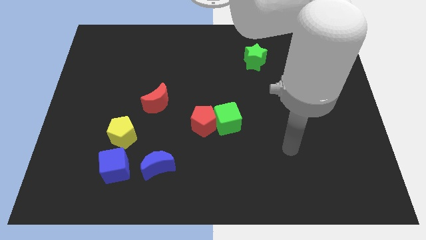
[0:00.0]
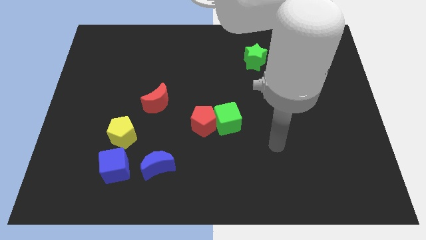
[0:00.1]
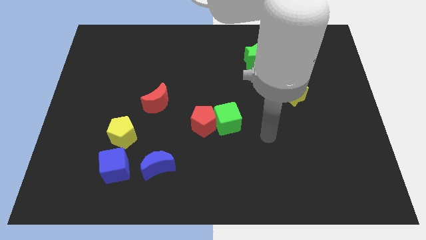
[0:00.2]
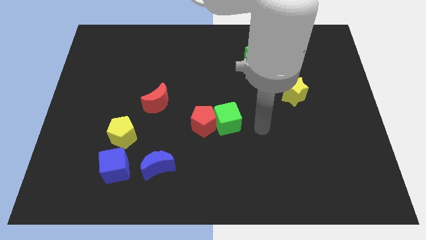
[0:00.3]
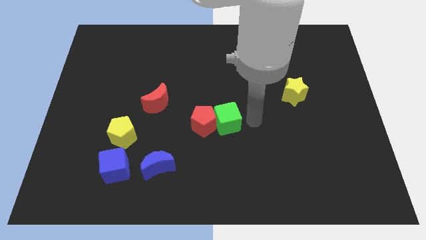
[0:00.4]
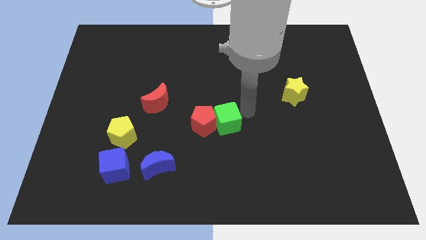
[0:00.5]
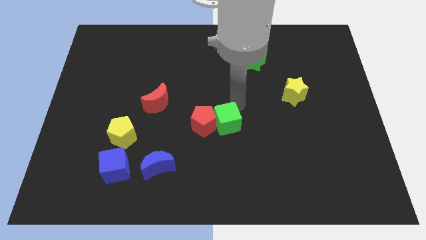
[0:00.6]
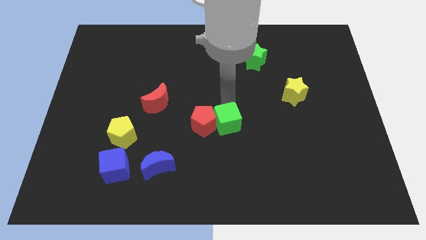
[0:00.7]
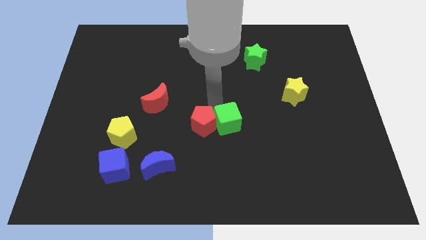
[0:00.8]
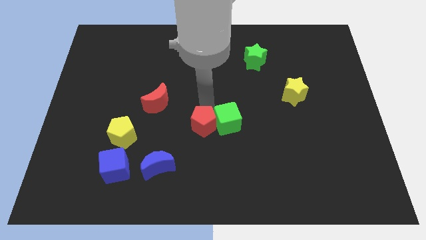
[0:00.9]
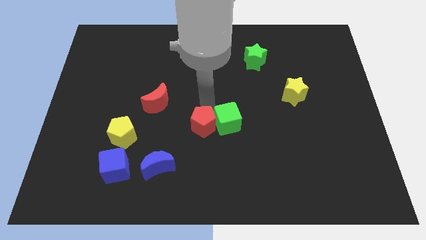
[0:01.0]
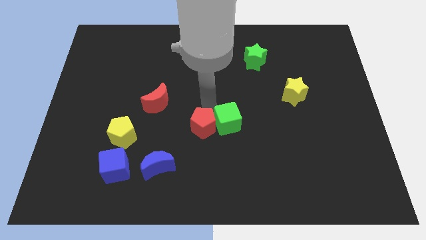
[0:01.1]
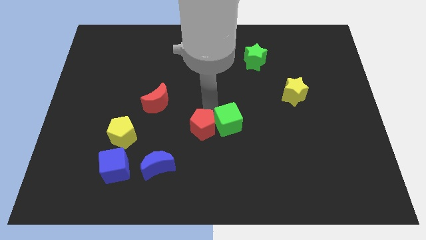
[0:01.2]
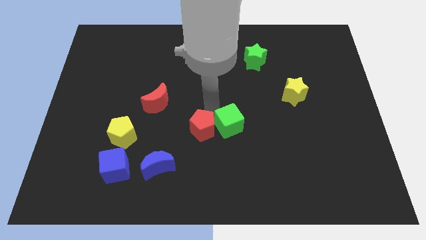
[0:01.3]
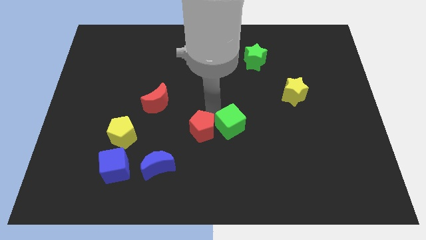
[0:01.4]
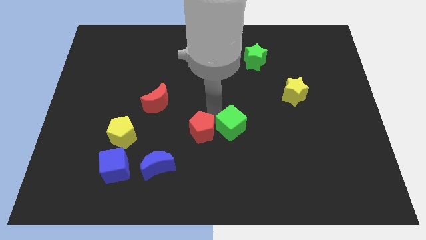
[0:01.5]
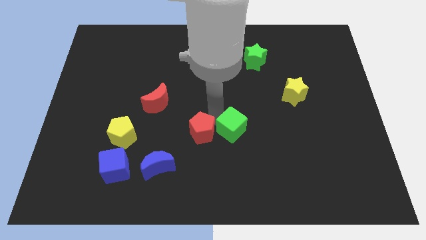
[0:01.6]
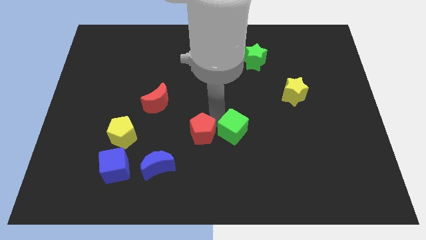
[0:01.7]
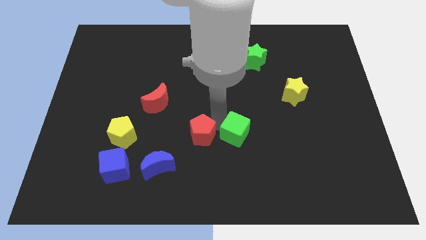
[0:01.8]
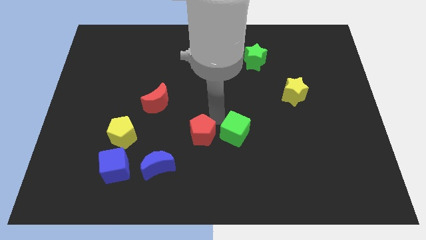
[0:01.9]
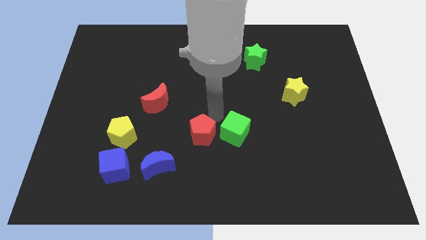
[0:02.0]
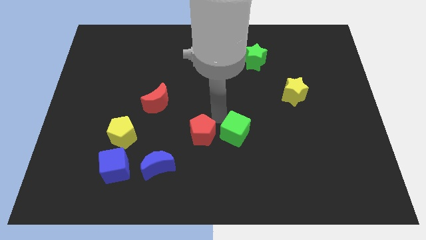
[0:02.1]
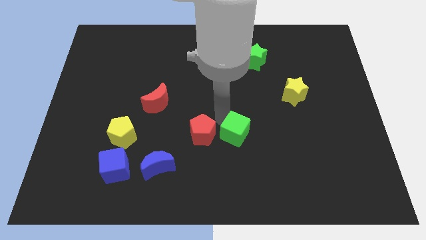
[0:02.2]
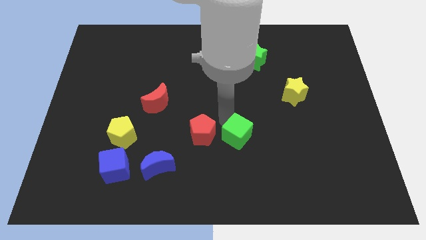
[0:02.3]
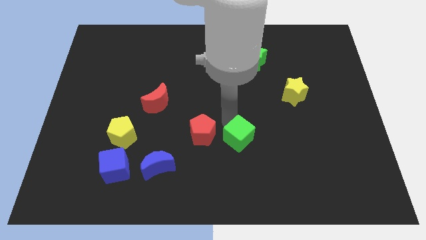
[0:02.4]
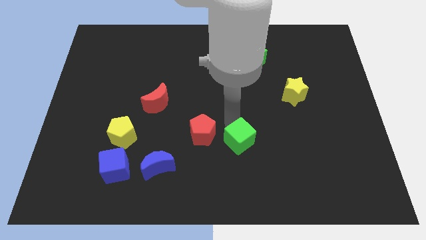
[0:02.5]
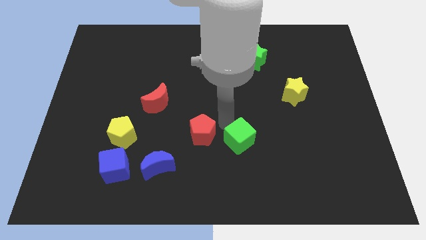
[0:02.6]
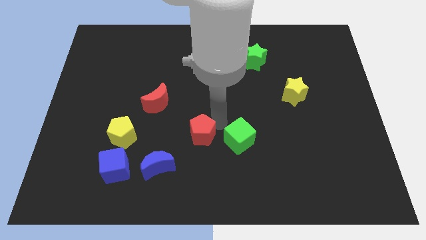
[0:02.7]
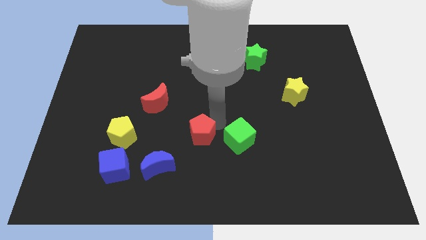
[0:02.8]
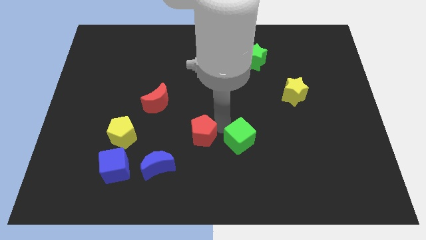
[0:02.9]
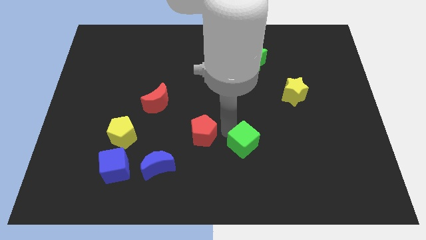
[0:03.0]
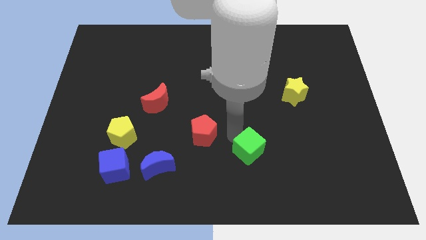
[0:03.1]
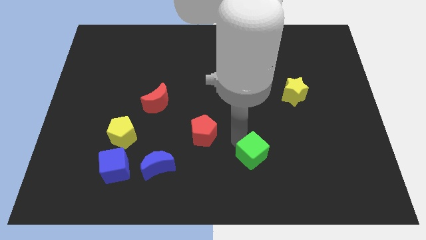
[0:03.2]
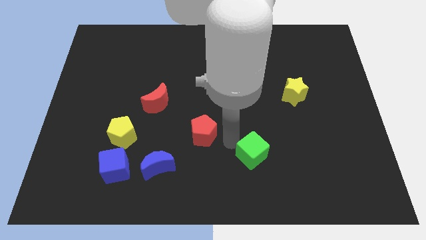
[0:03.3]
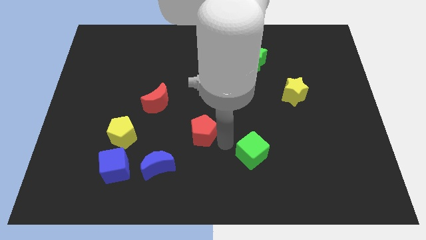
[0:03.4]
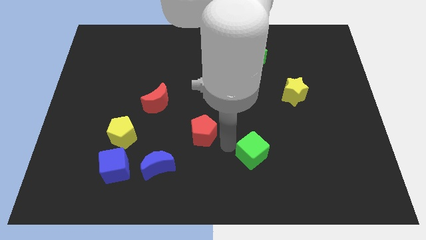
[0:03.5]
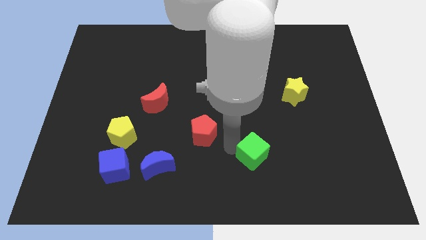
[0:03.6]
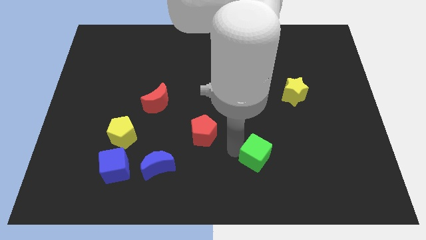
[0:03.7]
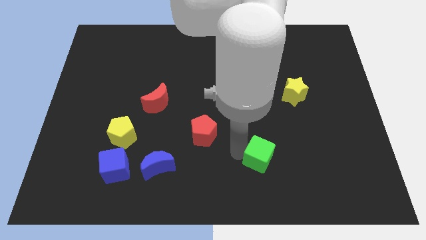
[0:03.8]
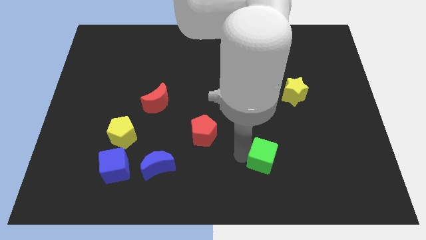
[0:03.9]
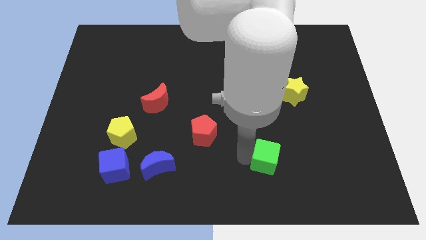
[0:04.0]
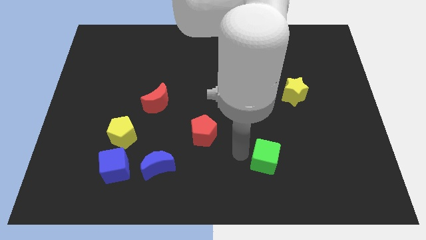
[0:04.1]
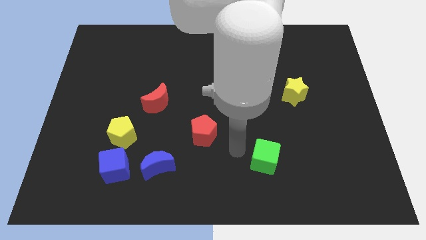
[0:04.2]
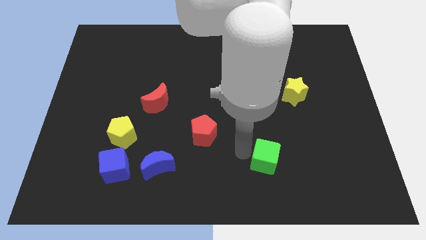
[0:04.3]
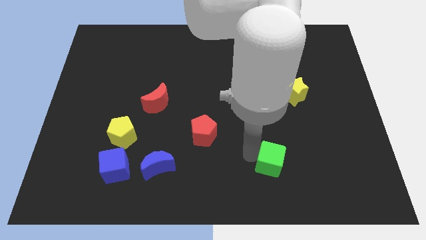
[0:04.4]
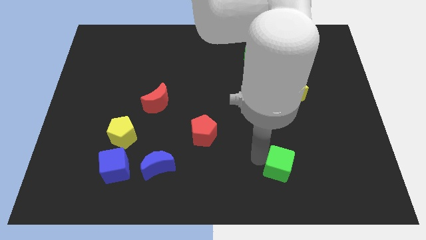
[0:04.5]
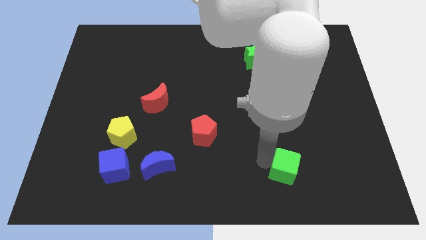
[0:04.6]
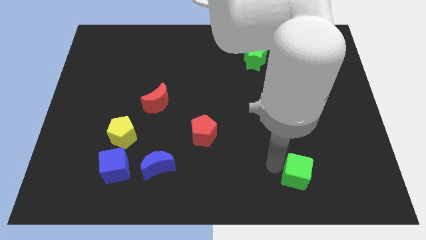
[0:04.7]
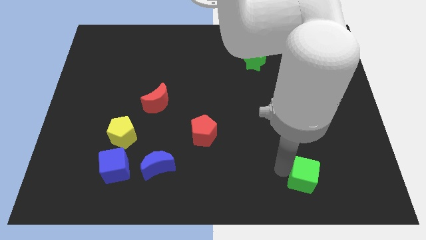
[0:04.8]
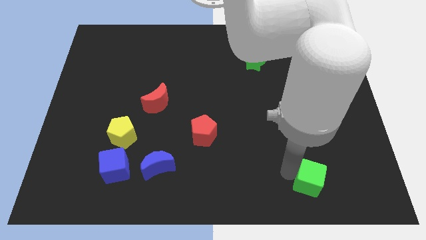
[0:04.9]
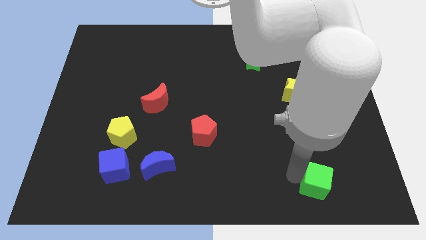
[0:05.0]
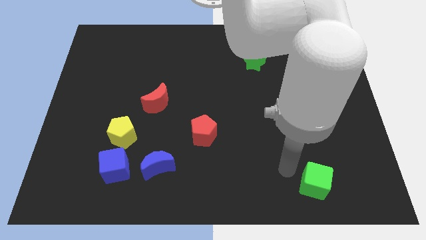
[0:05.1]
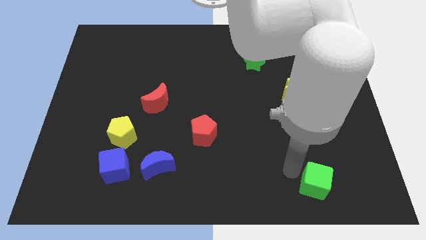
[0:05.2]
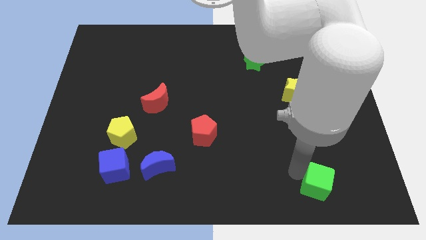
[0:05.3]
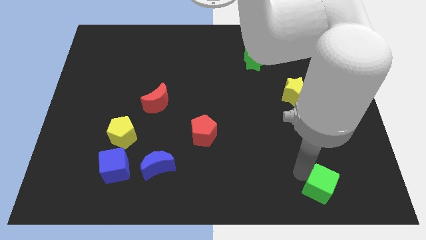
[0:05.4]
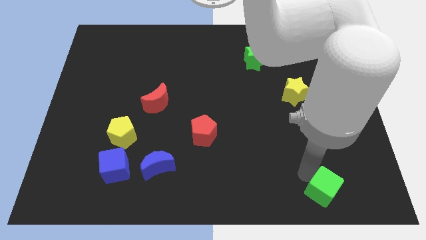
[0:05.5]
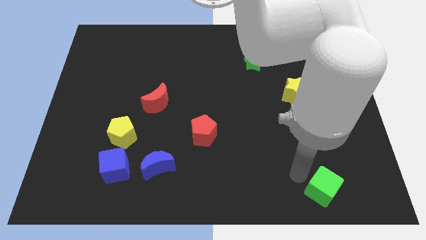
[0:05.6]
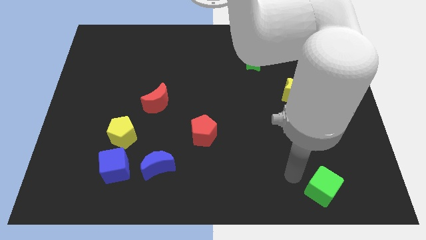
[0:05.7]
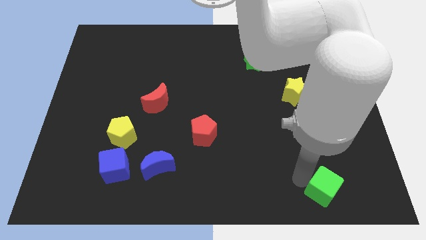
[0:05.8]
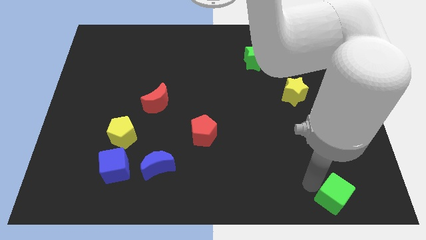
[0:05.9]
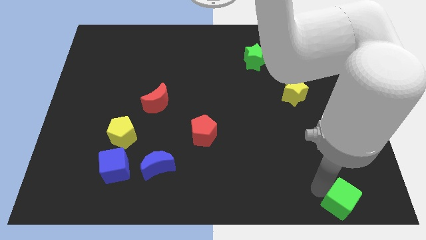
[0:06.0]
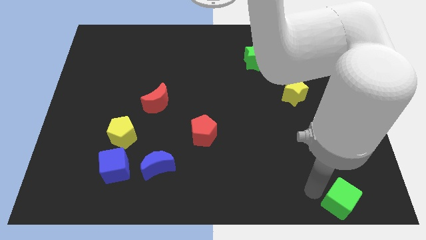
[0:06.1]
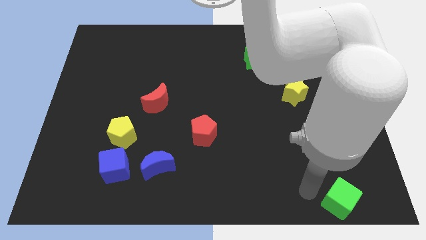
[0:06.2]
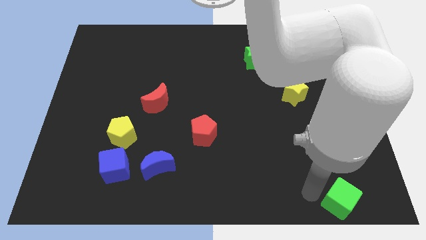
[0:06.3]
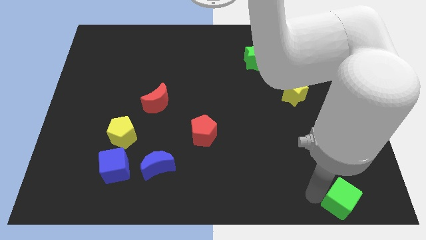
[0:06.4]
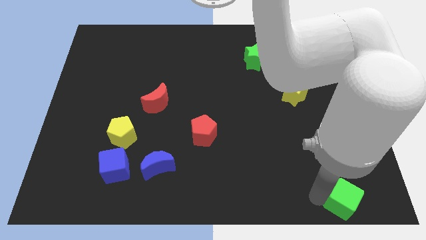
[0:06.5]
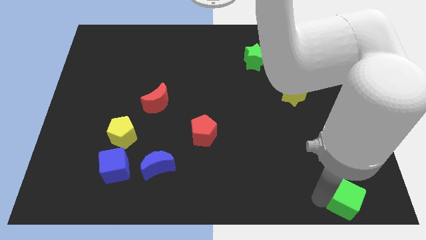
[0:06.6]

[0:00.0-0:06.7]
move the green cube to the bottom right corner
